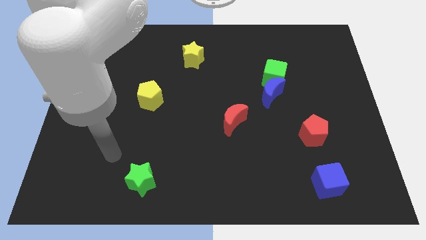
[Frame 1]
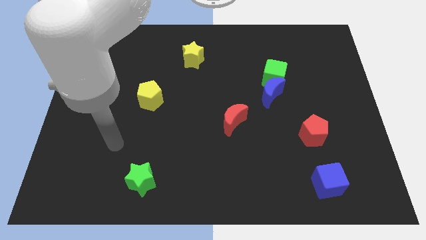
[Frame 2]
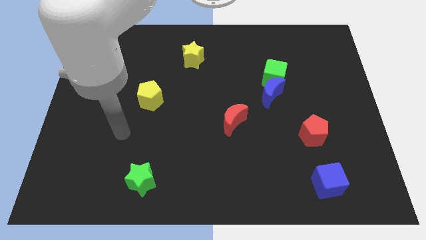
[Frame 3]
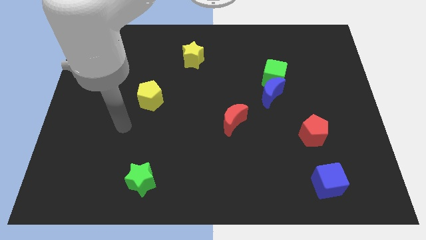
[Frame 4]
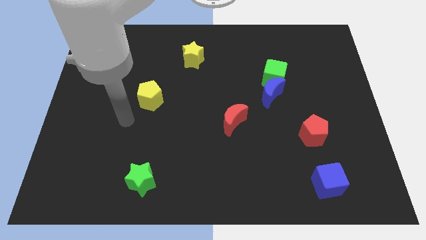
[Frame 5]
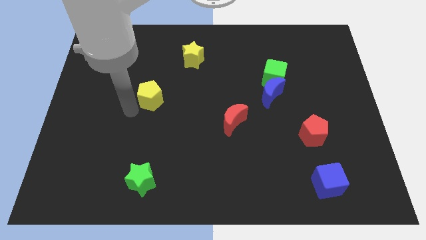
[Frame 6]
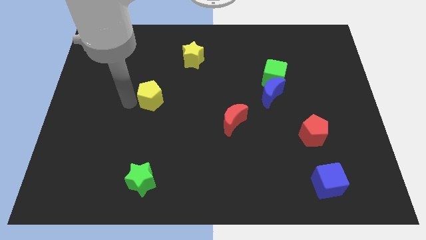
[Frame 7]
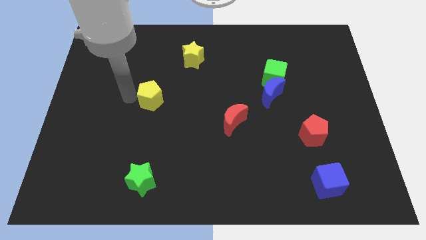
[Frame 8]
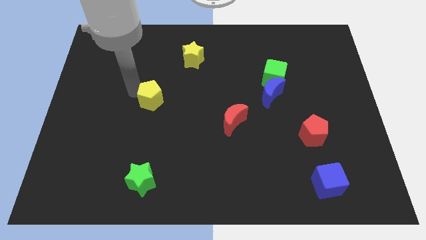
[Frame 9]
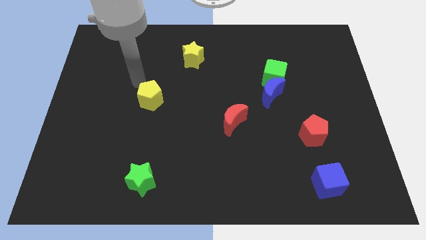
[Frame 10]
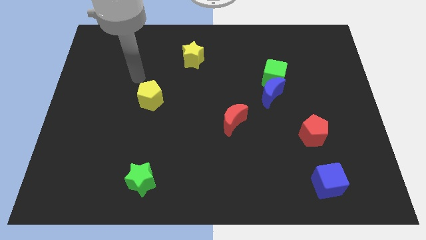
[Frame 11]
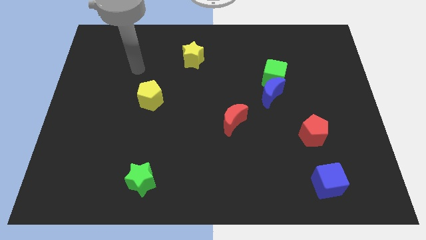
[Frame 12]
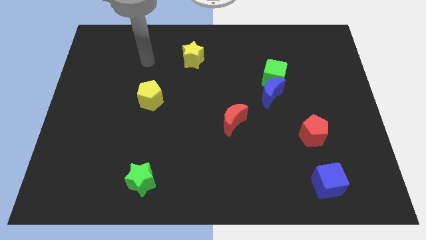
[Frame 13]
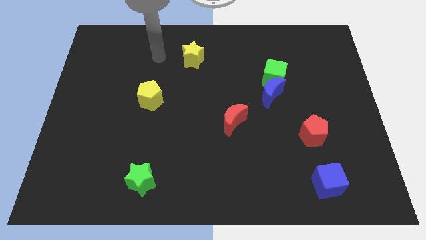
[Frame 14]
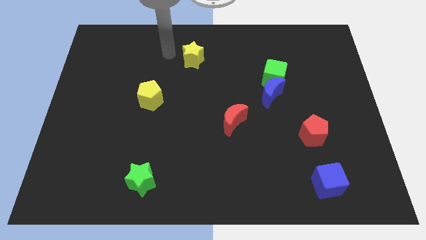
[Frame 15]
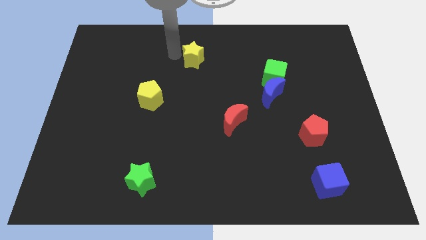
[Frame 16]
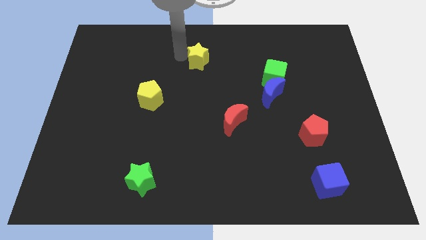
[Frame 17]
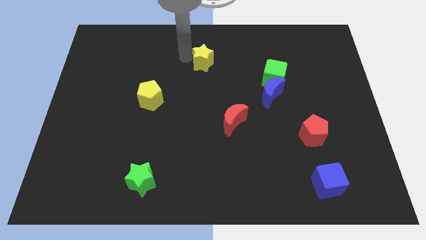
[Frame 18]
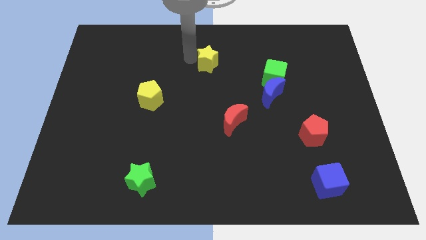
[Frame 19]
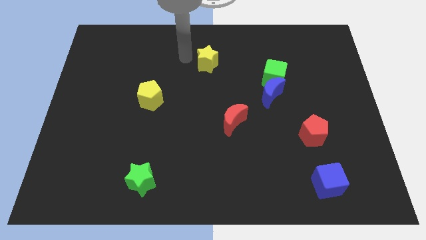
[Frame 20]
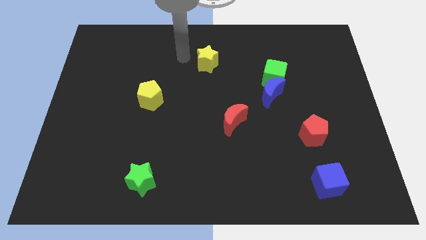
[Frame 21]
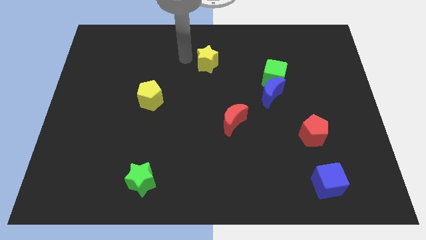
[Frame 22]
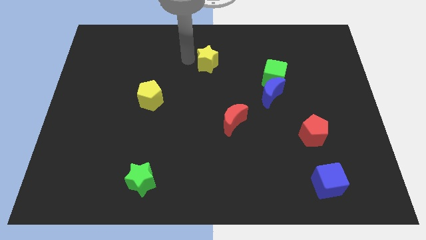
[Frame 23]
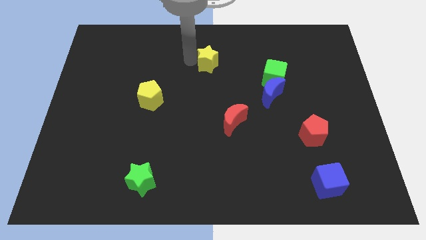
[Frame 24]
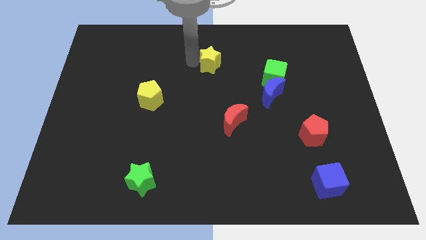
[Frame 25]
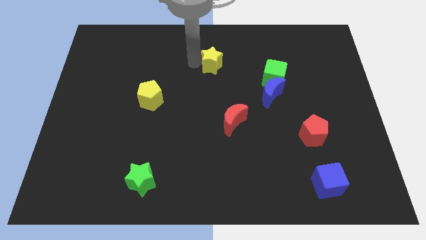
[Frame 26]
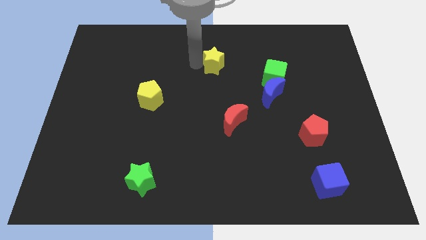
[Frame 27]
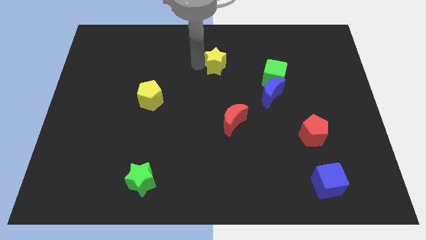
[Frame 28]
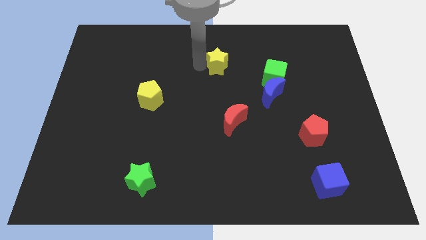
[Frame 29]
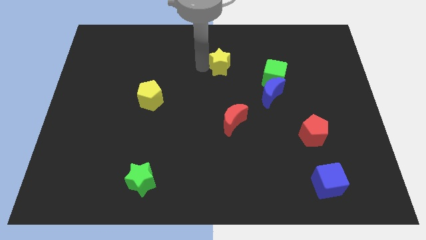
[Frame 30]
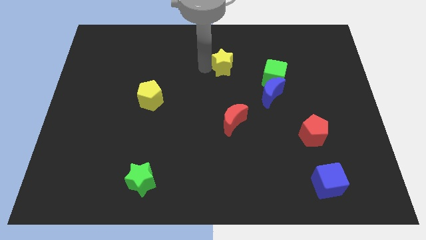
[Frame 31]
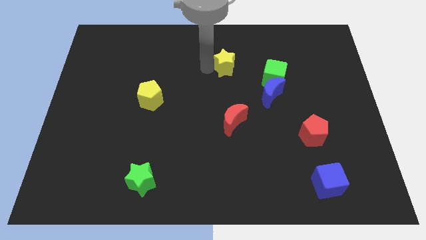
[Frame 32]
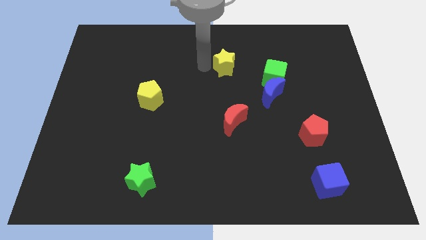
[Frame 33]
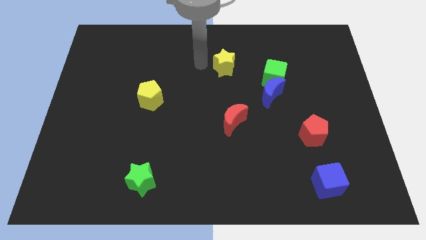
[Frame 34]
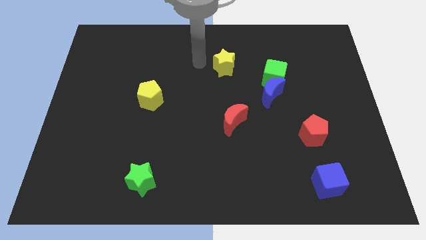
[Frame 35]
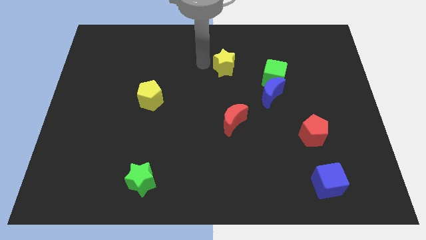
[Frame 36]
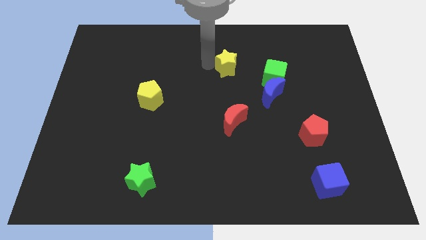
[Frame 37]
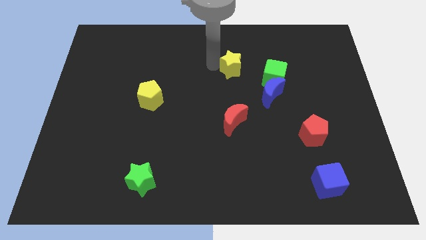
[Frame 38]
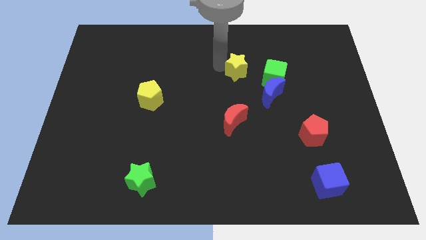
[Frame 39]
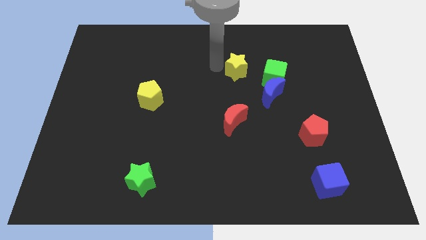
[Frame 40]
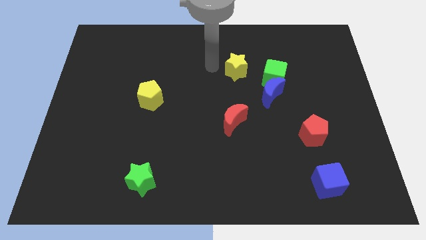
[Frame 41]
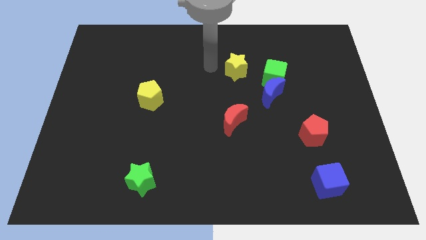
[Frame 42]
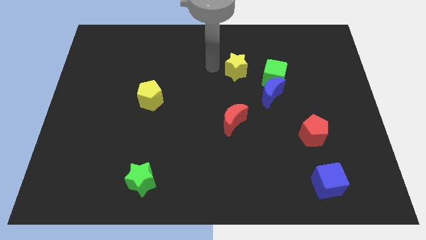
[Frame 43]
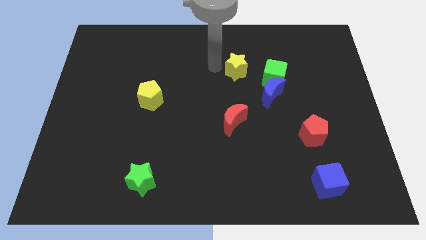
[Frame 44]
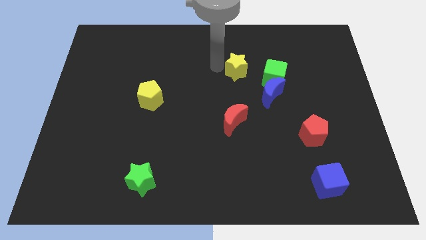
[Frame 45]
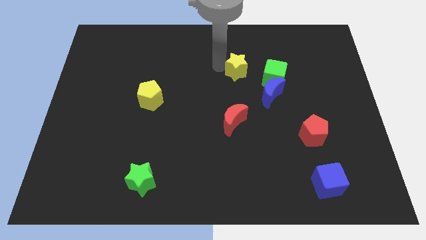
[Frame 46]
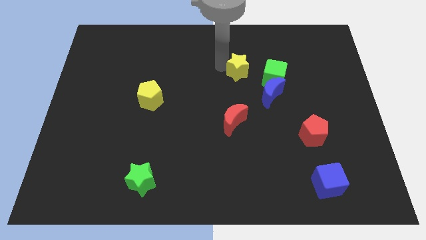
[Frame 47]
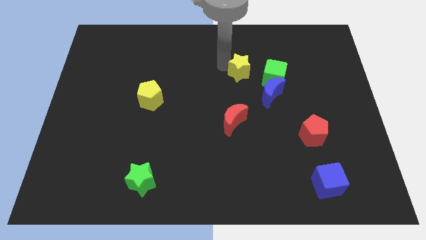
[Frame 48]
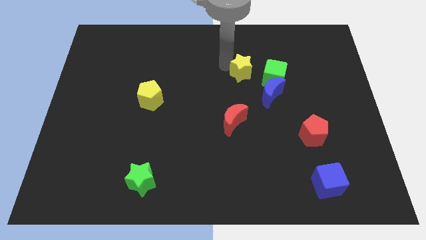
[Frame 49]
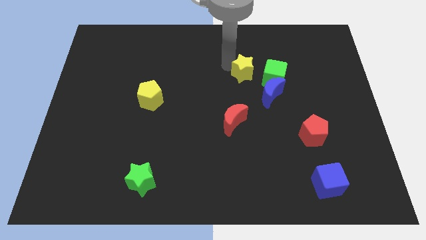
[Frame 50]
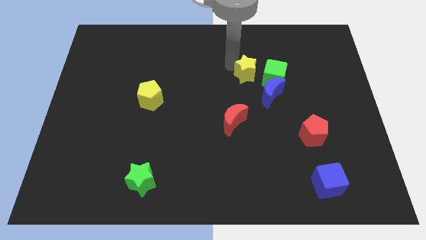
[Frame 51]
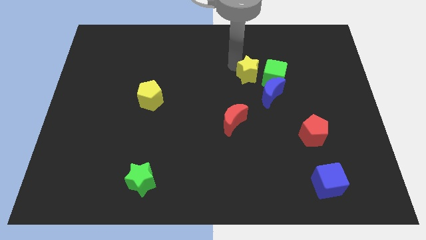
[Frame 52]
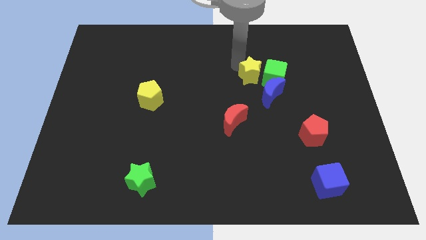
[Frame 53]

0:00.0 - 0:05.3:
move the yellow star towards the green cube

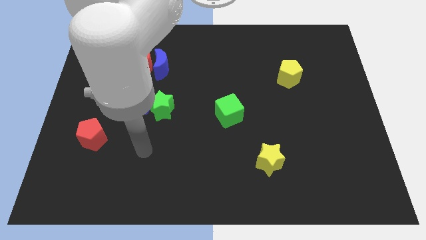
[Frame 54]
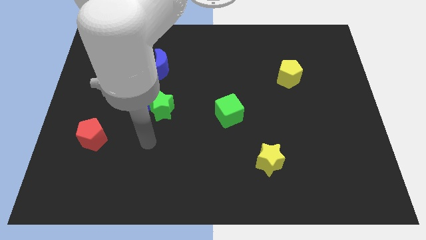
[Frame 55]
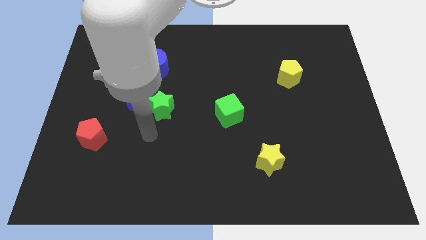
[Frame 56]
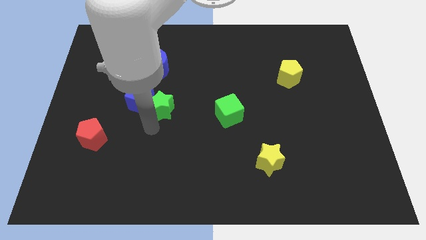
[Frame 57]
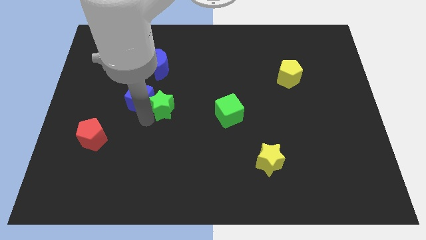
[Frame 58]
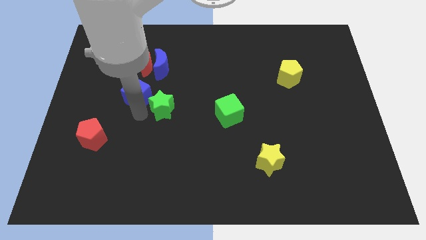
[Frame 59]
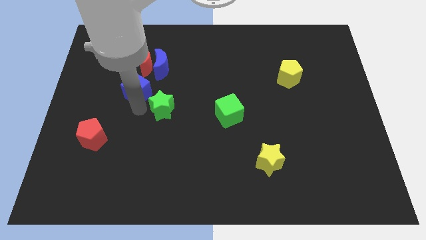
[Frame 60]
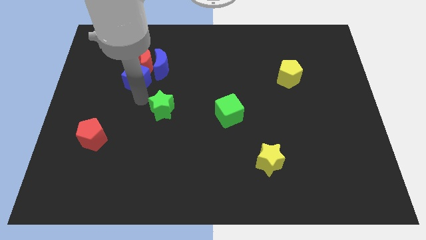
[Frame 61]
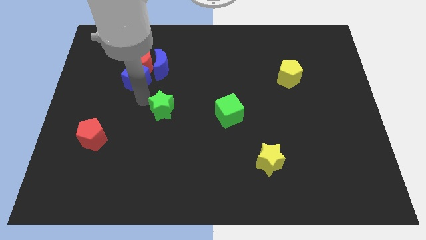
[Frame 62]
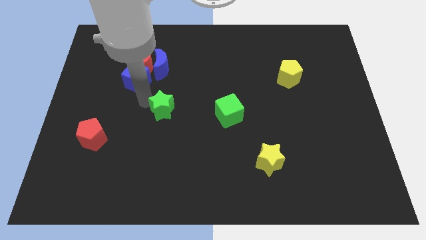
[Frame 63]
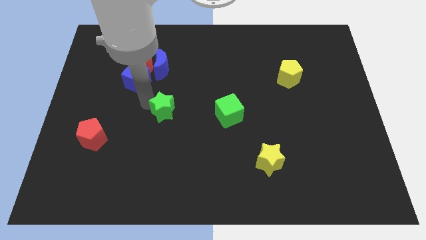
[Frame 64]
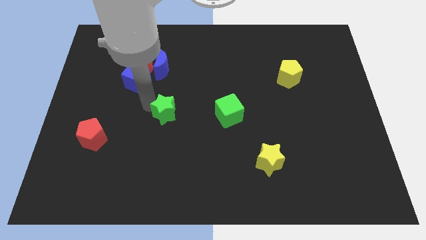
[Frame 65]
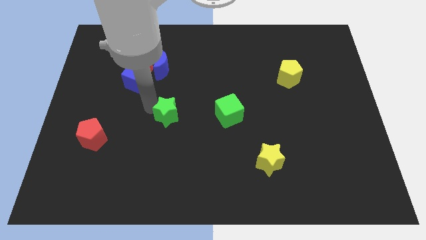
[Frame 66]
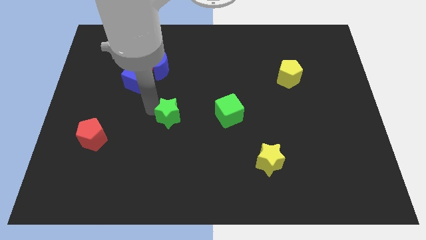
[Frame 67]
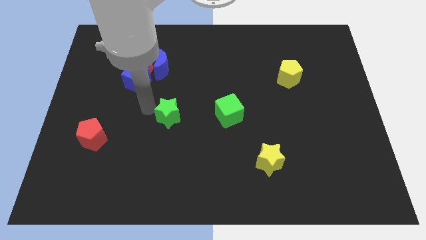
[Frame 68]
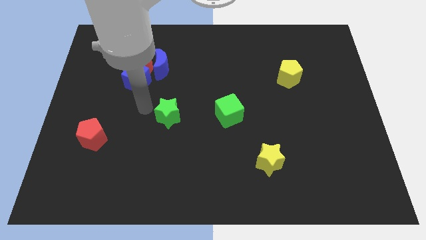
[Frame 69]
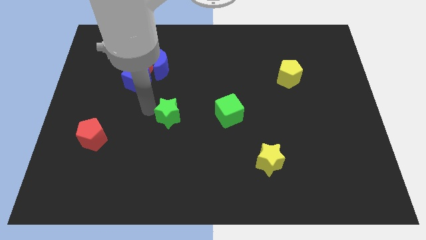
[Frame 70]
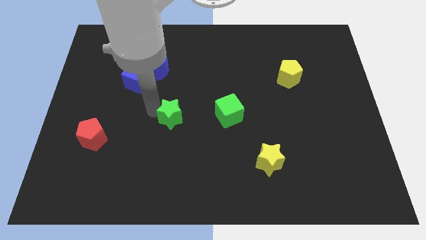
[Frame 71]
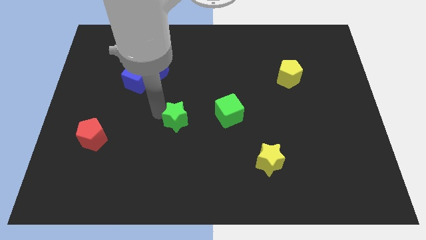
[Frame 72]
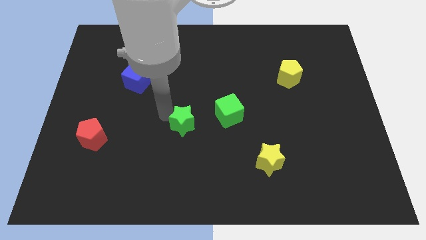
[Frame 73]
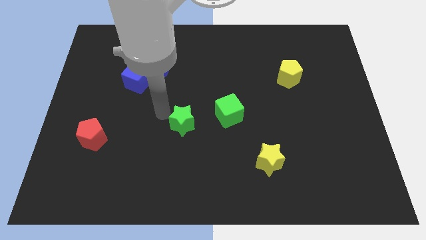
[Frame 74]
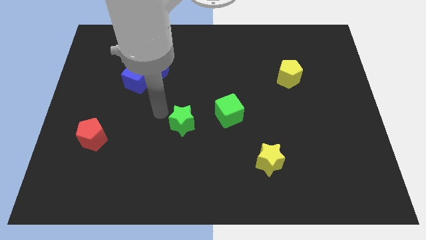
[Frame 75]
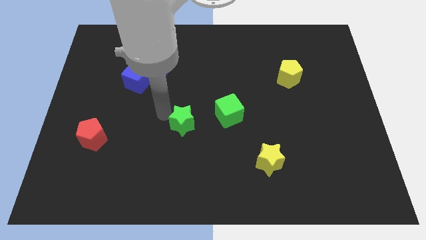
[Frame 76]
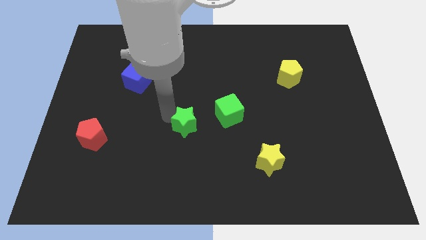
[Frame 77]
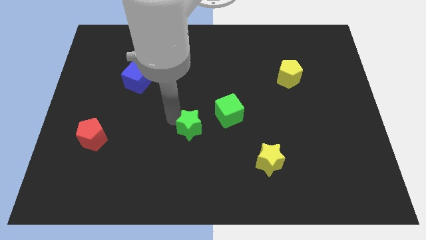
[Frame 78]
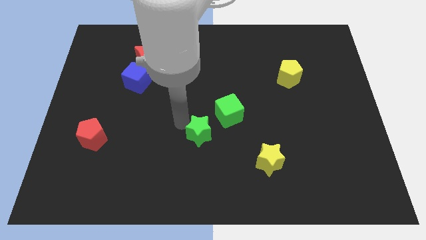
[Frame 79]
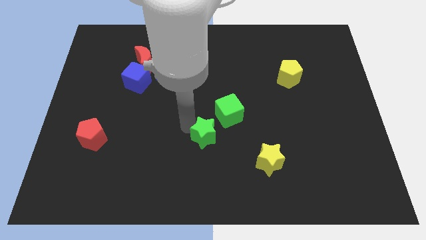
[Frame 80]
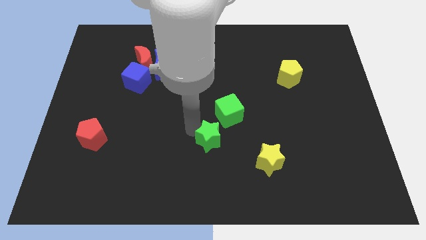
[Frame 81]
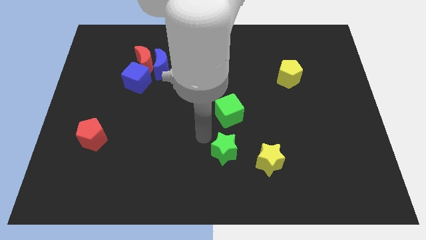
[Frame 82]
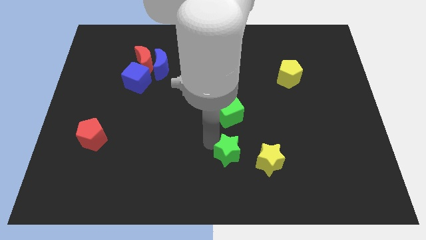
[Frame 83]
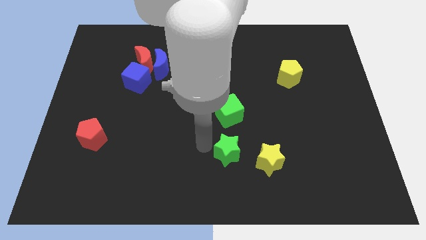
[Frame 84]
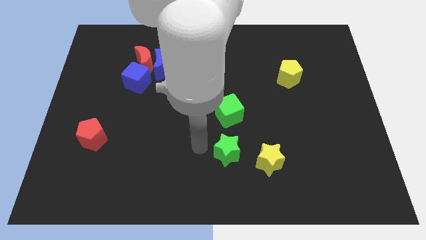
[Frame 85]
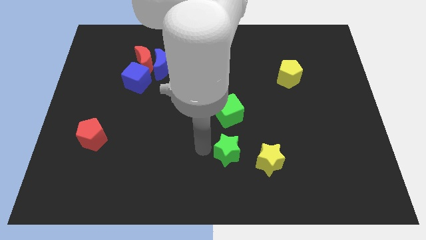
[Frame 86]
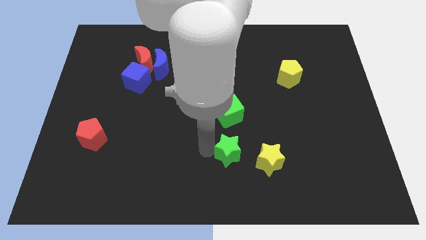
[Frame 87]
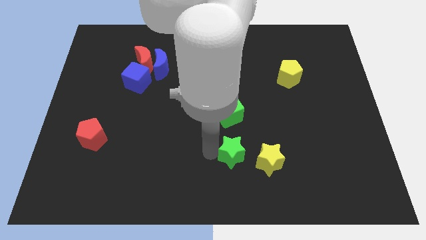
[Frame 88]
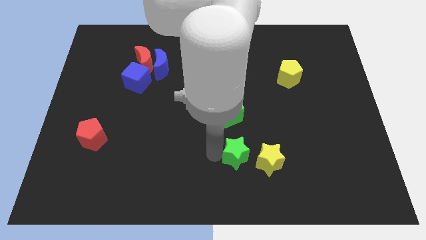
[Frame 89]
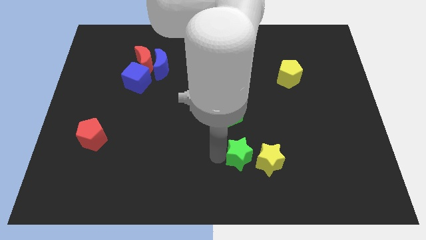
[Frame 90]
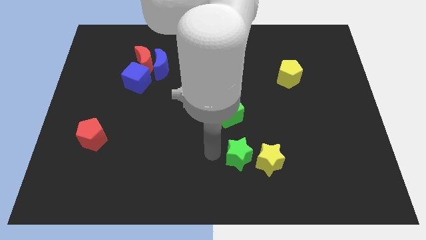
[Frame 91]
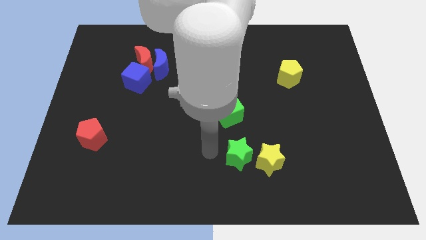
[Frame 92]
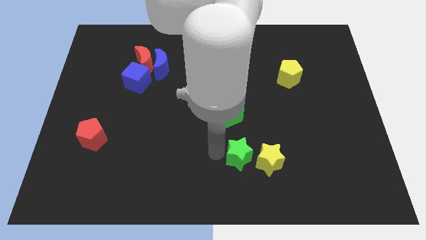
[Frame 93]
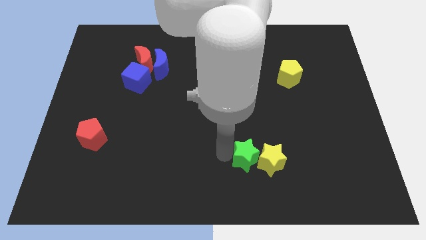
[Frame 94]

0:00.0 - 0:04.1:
put the green star to the yellow star
